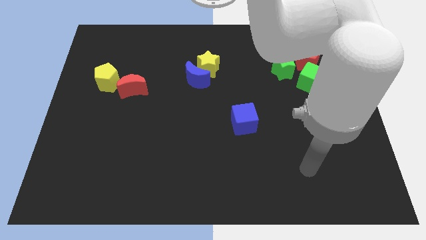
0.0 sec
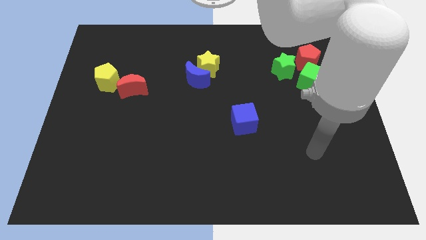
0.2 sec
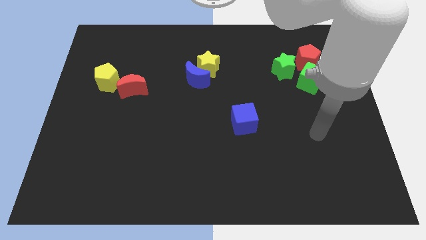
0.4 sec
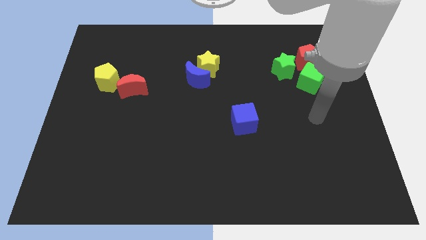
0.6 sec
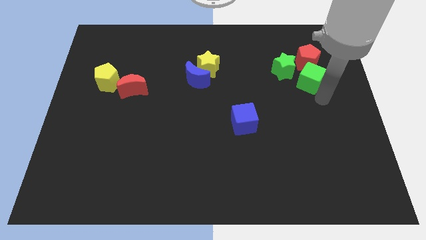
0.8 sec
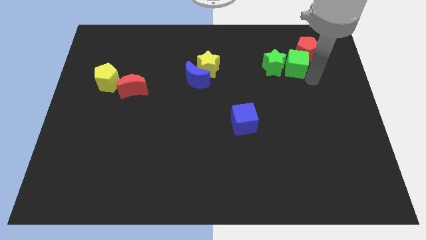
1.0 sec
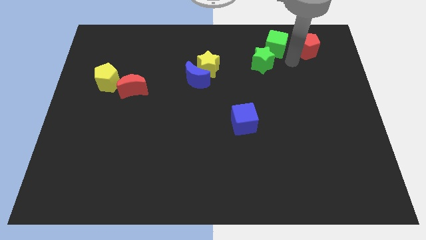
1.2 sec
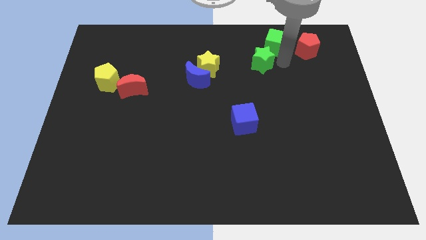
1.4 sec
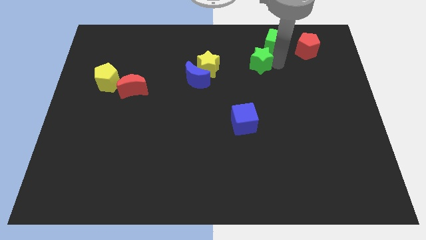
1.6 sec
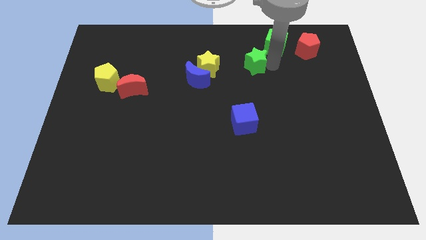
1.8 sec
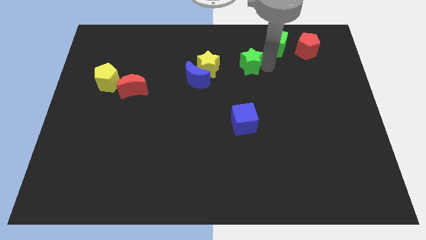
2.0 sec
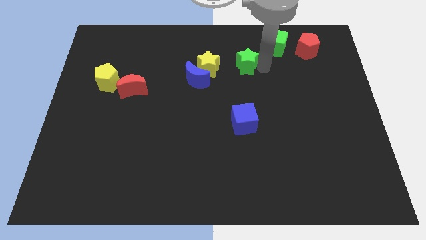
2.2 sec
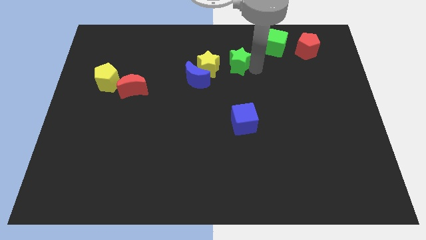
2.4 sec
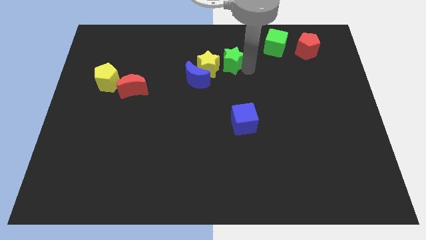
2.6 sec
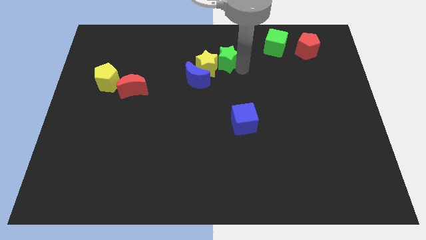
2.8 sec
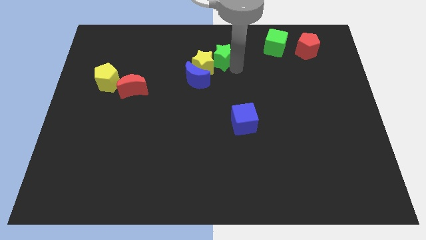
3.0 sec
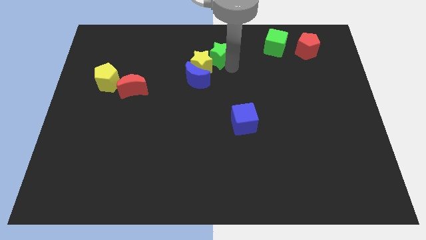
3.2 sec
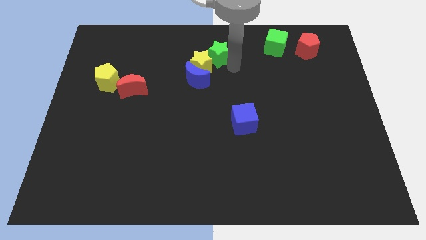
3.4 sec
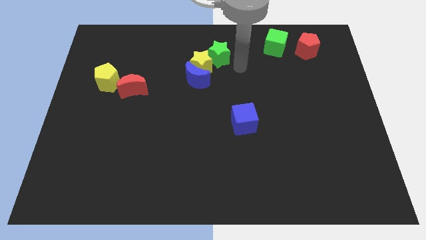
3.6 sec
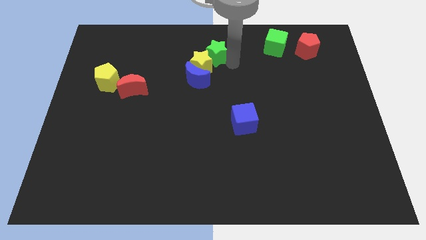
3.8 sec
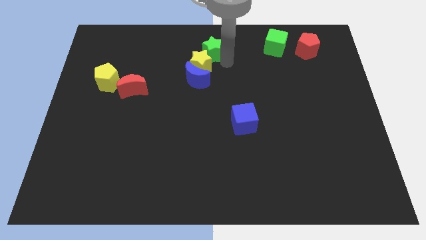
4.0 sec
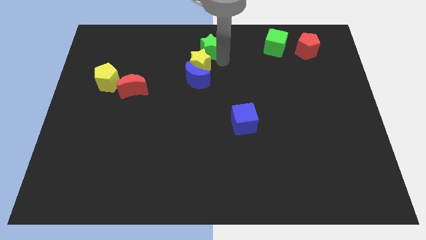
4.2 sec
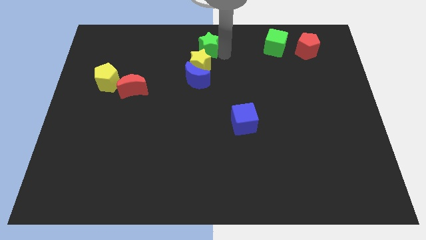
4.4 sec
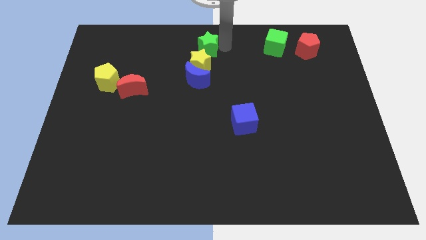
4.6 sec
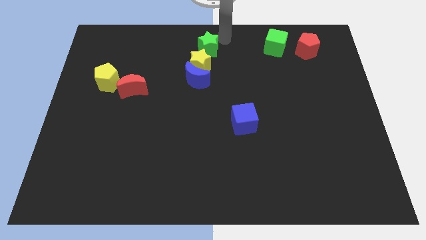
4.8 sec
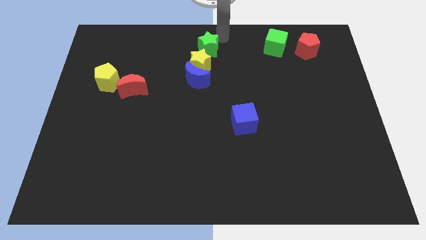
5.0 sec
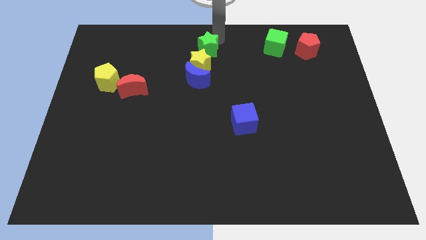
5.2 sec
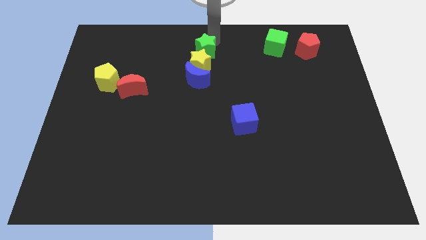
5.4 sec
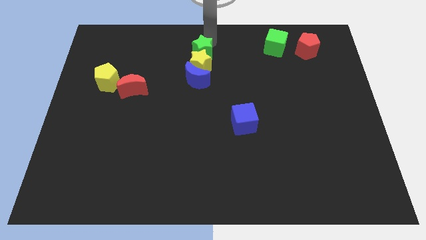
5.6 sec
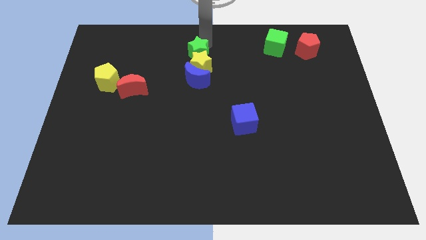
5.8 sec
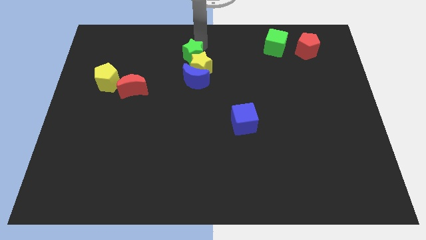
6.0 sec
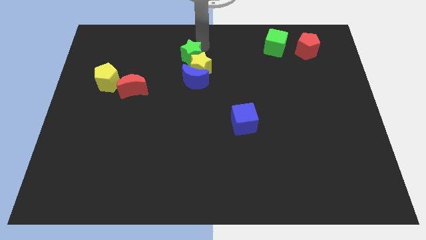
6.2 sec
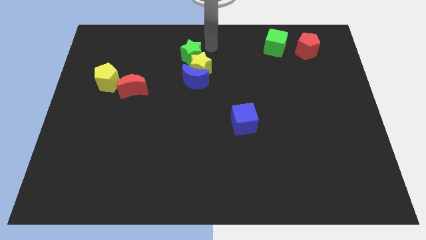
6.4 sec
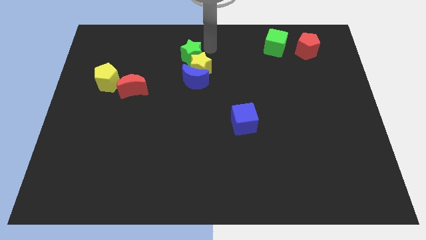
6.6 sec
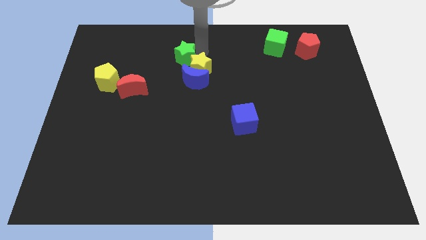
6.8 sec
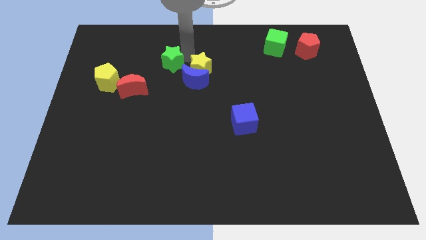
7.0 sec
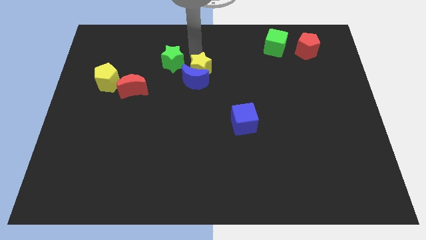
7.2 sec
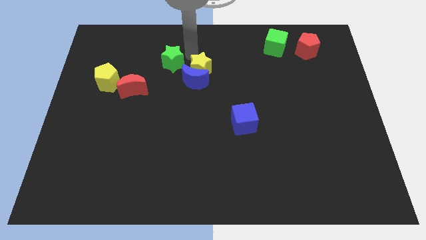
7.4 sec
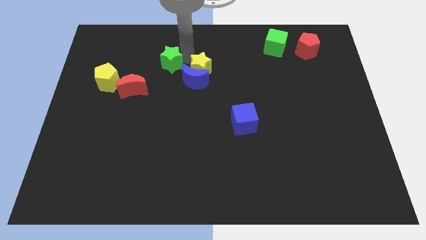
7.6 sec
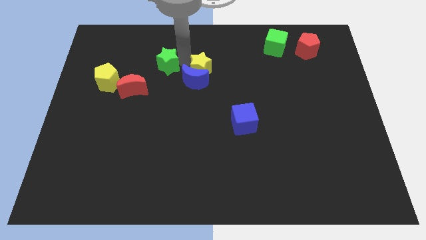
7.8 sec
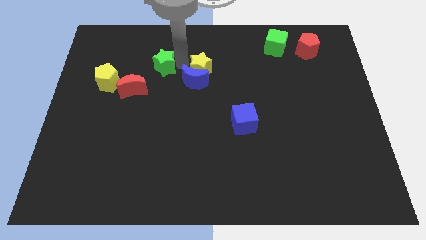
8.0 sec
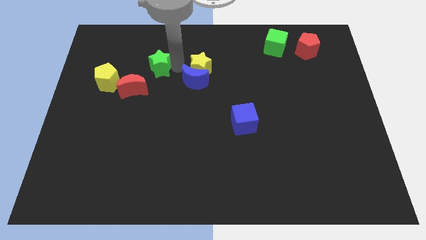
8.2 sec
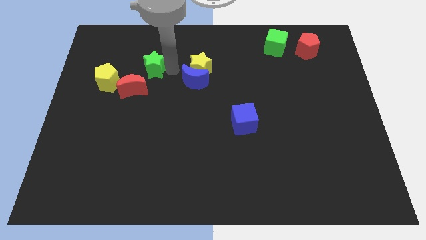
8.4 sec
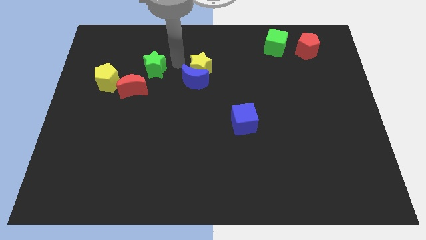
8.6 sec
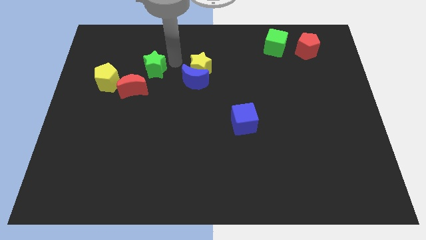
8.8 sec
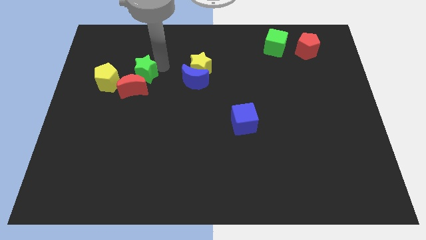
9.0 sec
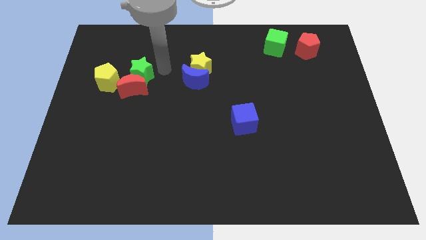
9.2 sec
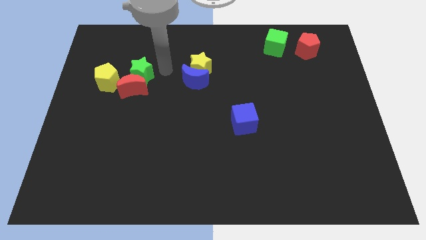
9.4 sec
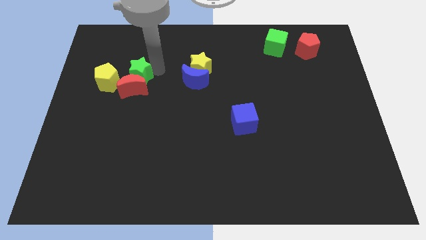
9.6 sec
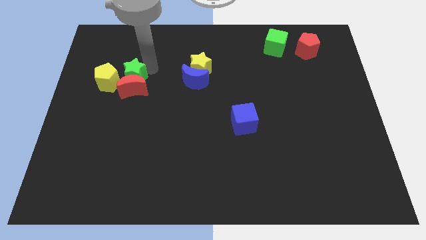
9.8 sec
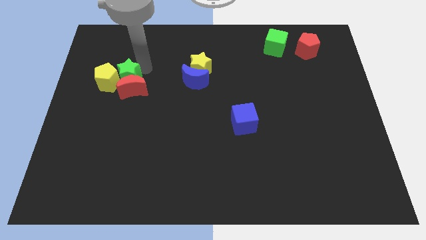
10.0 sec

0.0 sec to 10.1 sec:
push the green star close to the yellow pentagon

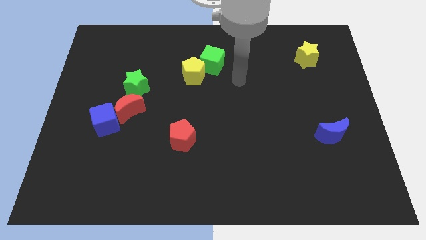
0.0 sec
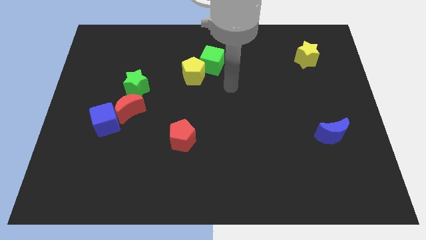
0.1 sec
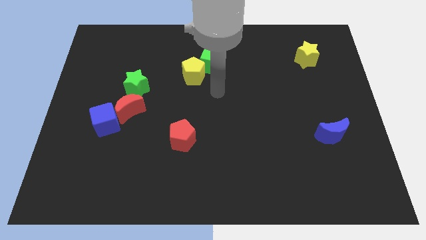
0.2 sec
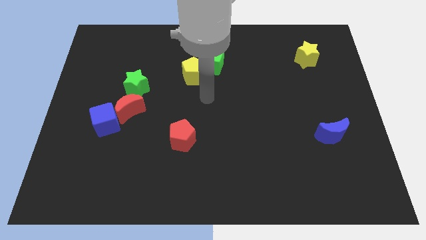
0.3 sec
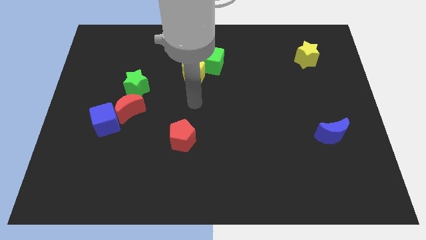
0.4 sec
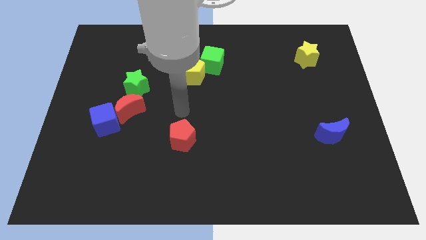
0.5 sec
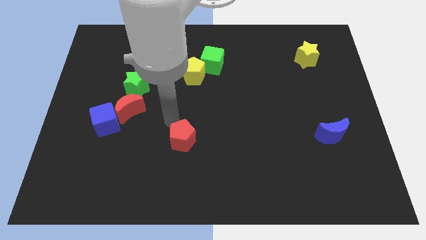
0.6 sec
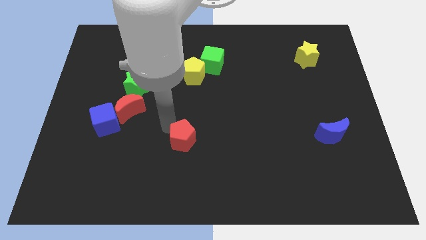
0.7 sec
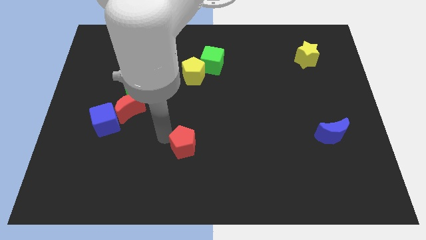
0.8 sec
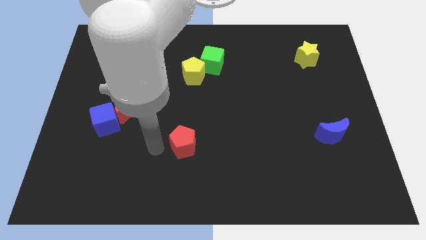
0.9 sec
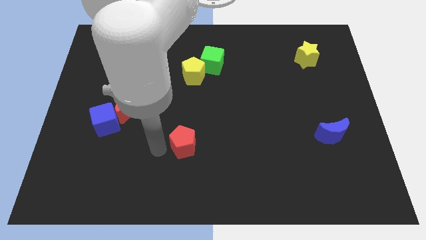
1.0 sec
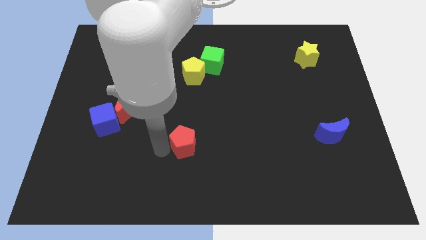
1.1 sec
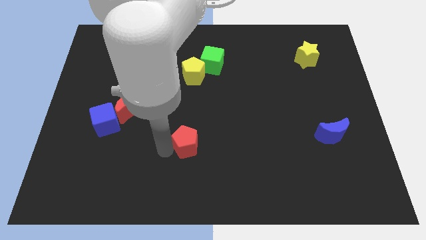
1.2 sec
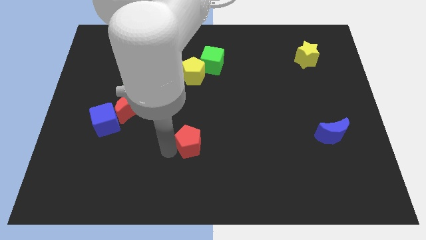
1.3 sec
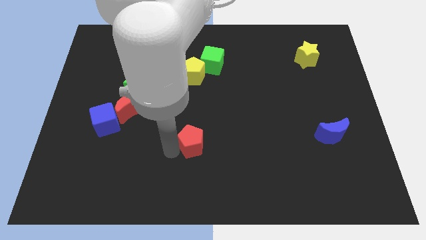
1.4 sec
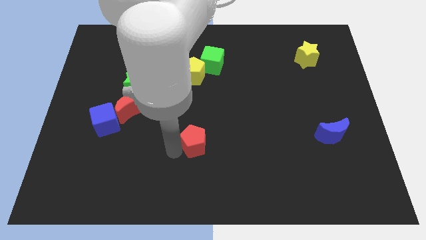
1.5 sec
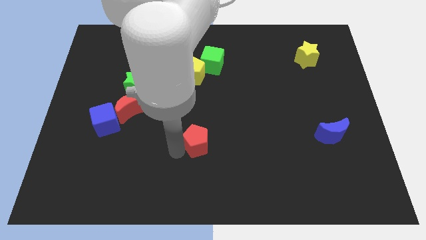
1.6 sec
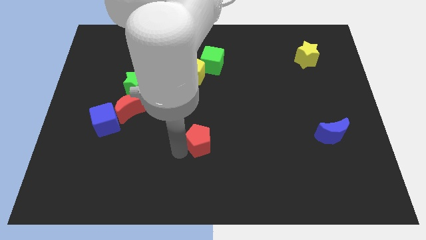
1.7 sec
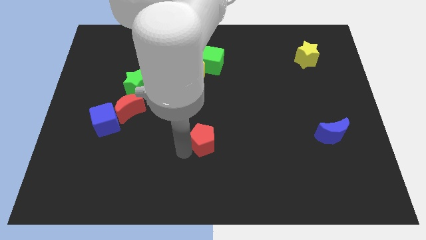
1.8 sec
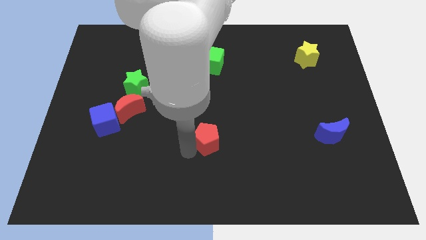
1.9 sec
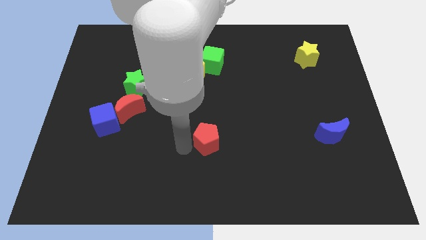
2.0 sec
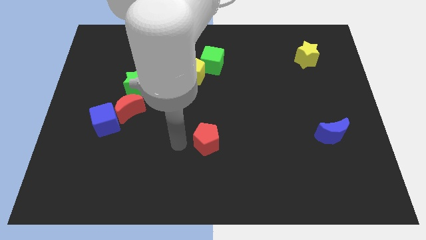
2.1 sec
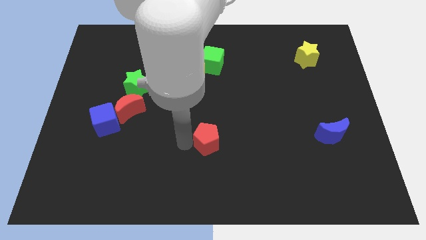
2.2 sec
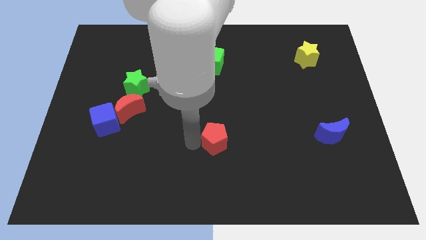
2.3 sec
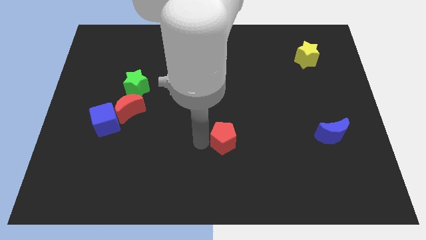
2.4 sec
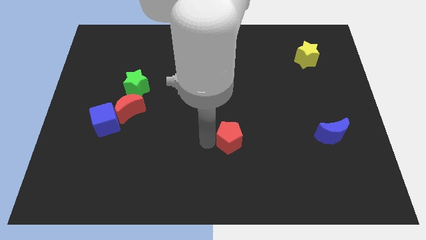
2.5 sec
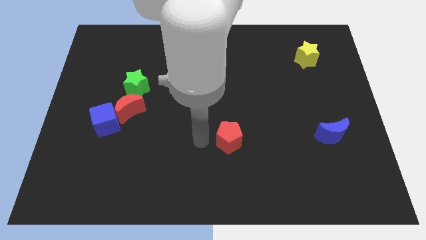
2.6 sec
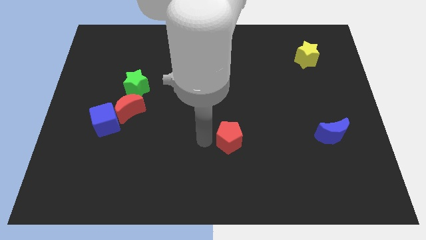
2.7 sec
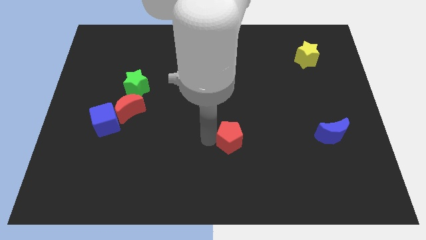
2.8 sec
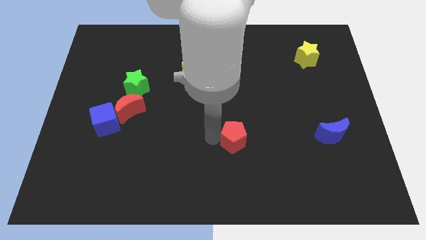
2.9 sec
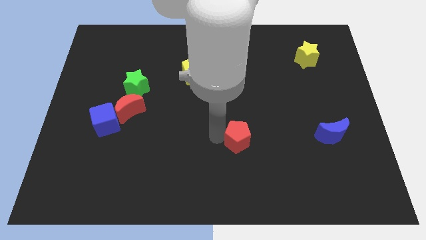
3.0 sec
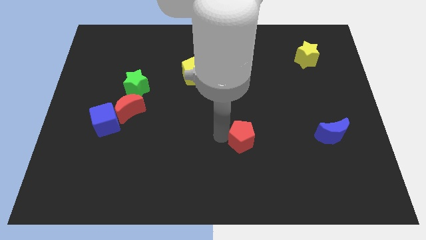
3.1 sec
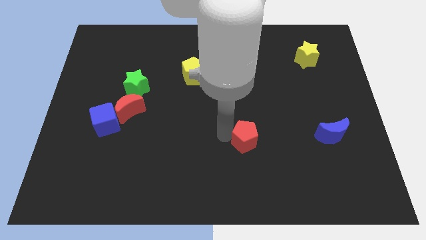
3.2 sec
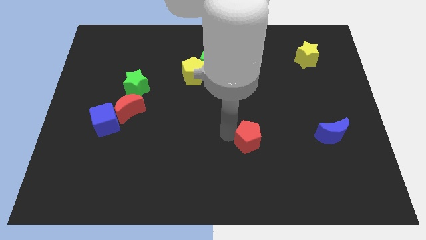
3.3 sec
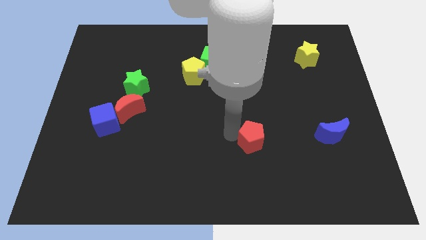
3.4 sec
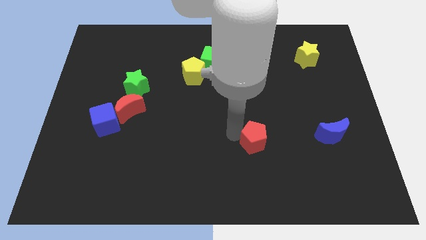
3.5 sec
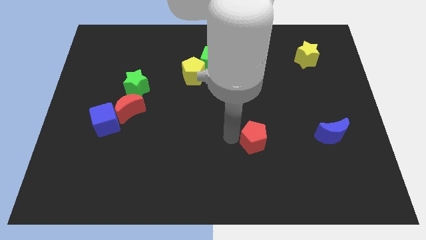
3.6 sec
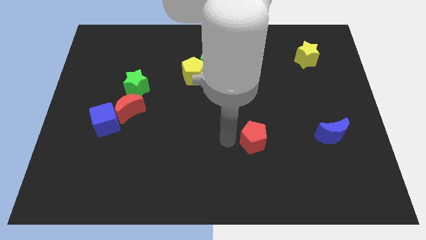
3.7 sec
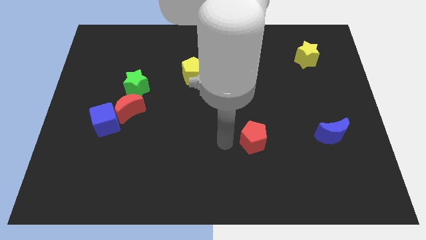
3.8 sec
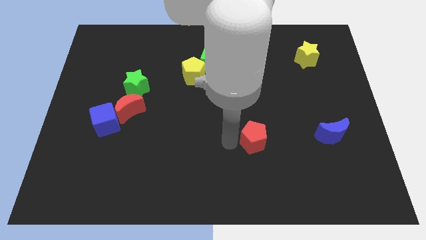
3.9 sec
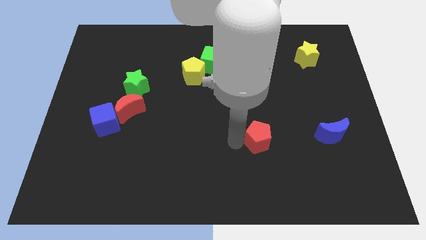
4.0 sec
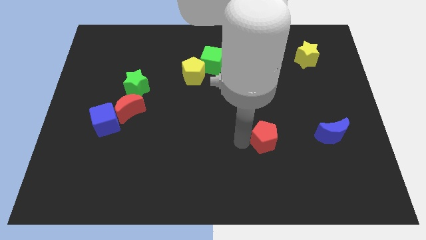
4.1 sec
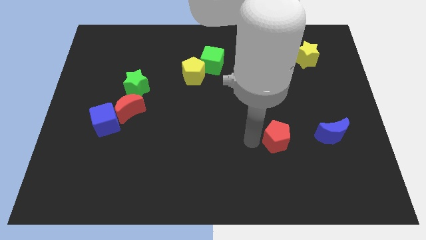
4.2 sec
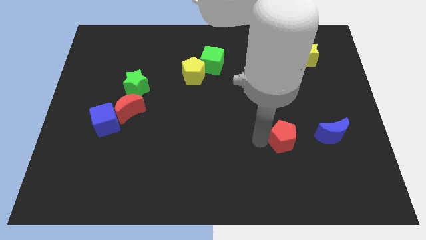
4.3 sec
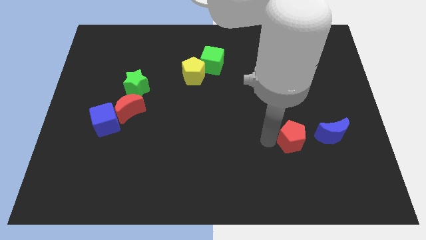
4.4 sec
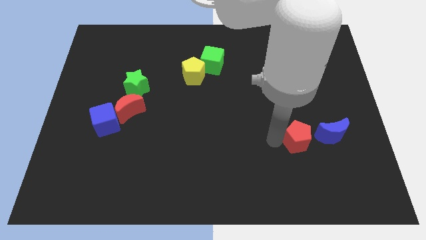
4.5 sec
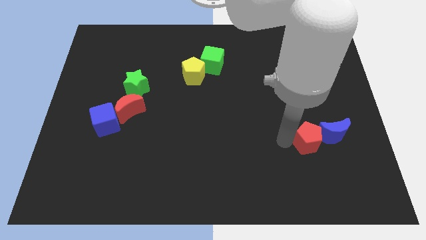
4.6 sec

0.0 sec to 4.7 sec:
push the red pentagon close to the blue moon
